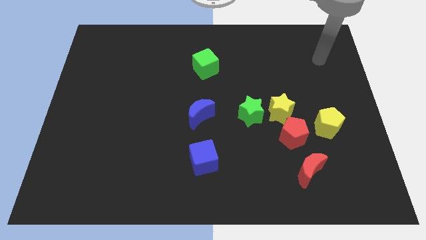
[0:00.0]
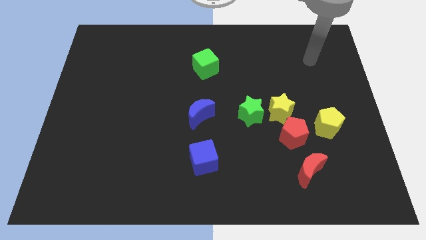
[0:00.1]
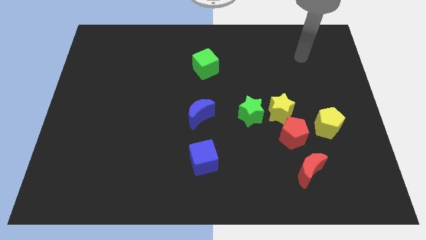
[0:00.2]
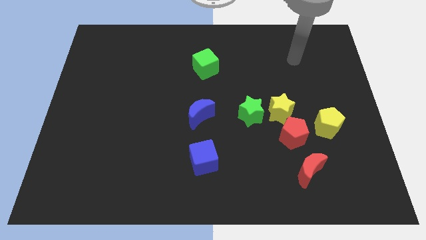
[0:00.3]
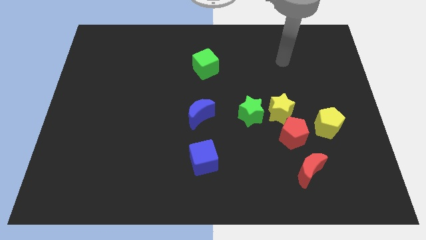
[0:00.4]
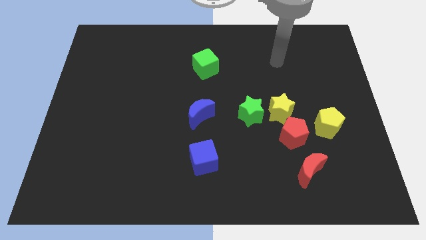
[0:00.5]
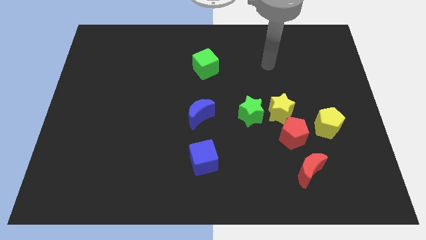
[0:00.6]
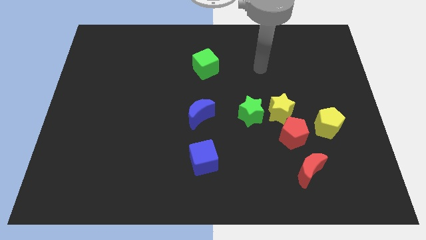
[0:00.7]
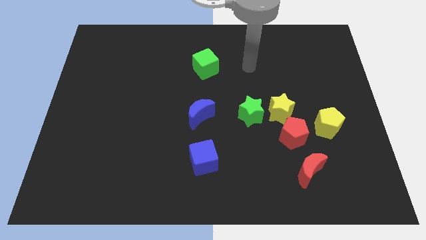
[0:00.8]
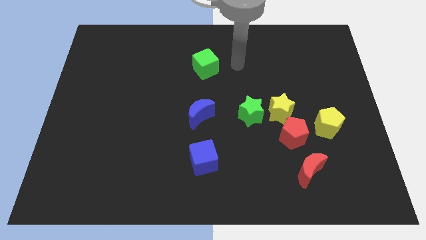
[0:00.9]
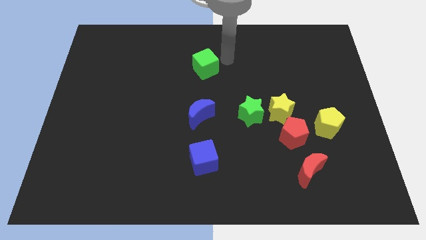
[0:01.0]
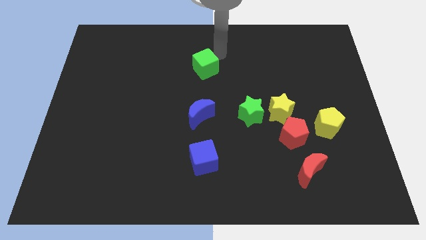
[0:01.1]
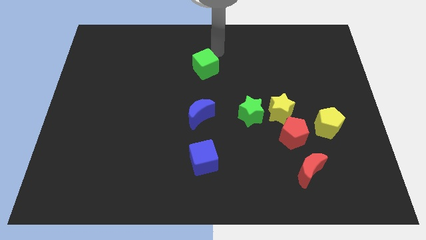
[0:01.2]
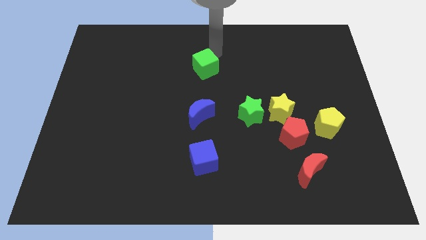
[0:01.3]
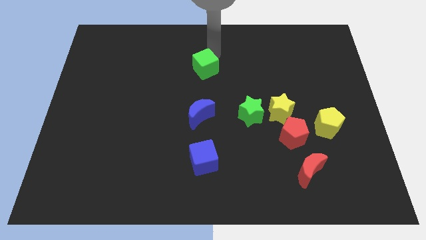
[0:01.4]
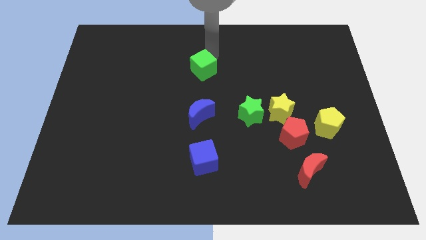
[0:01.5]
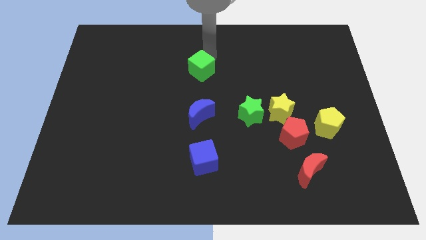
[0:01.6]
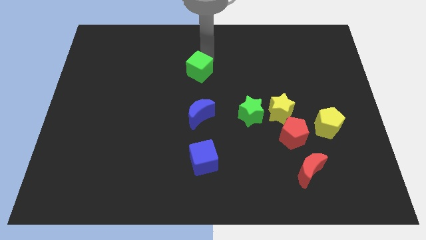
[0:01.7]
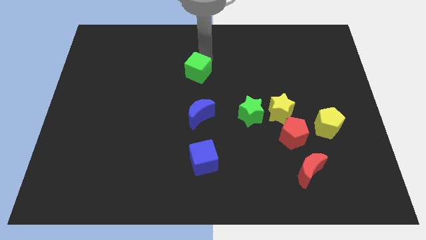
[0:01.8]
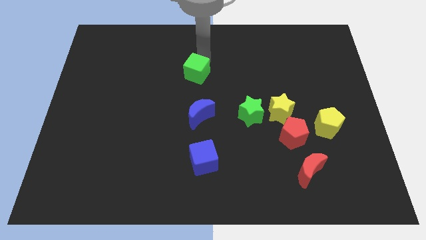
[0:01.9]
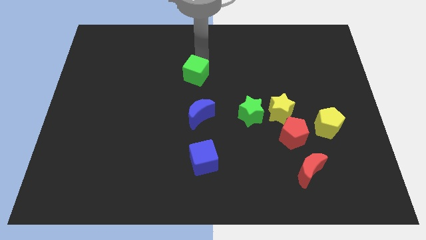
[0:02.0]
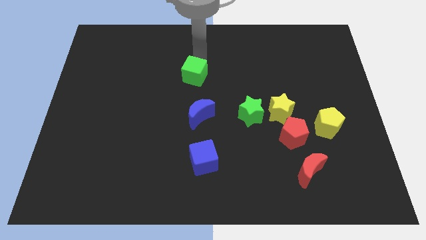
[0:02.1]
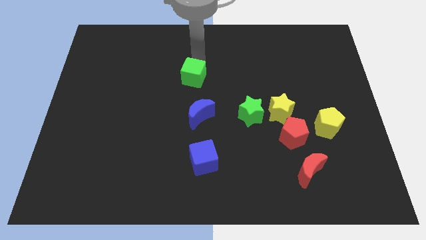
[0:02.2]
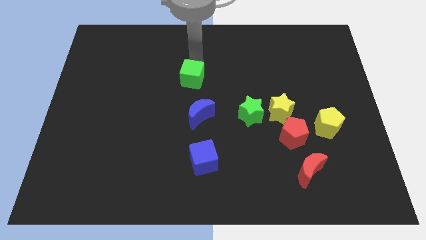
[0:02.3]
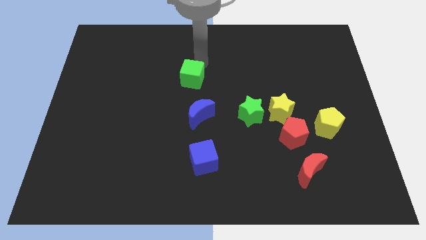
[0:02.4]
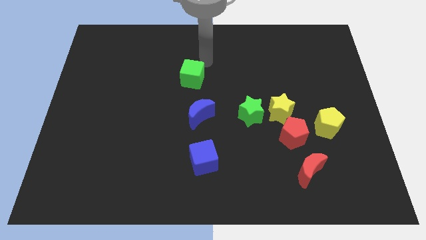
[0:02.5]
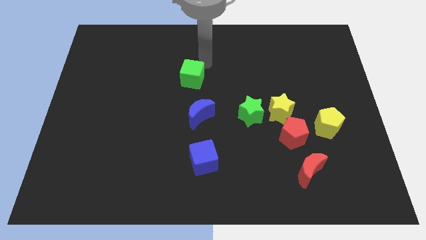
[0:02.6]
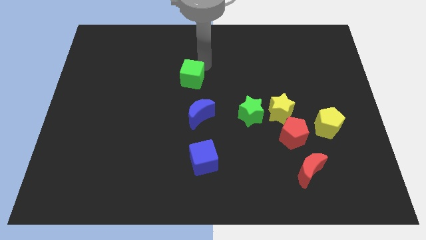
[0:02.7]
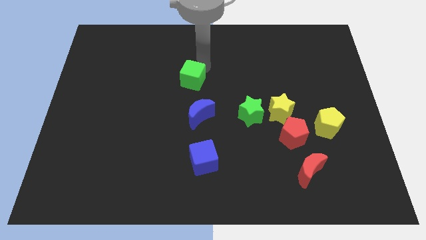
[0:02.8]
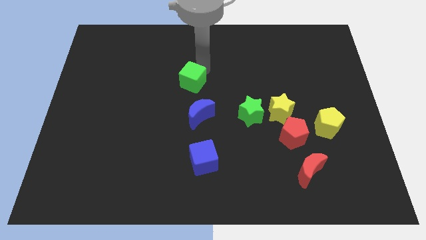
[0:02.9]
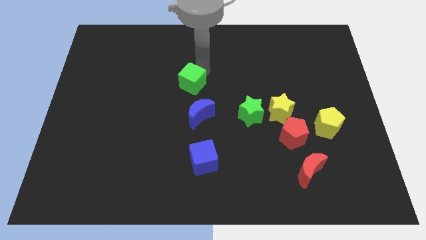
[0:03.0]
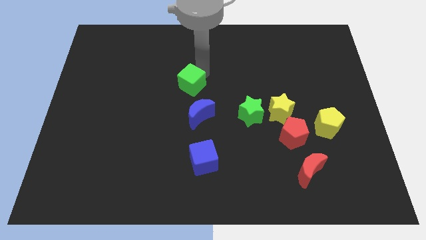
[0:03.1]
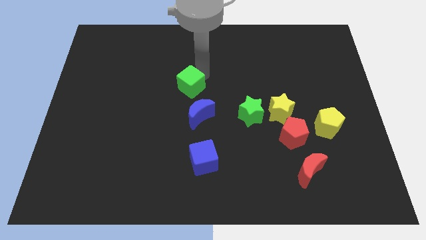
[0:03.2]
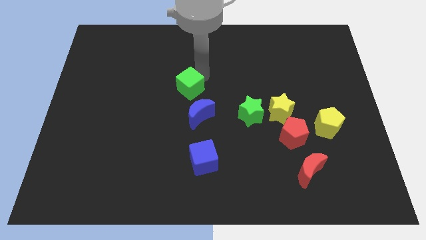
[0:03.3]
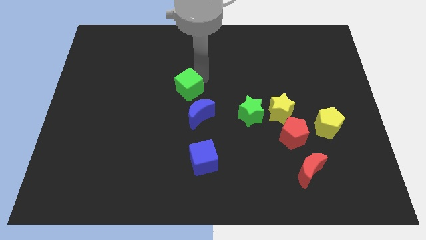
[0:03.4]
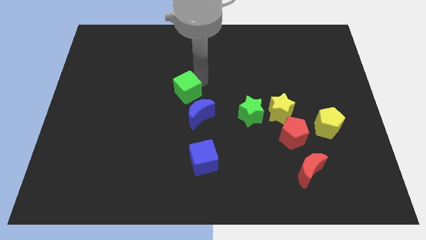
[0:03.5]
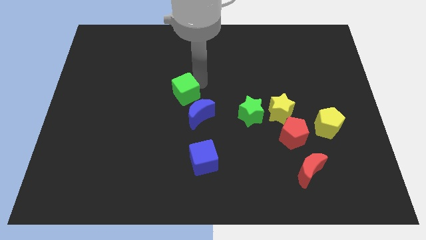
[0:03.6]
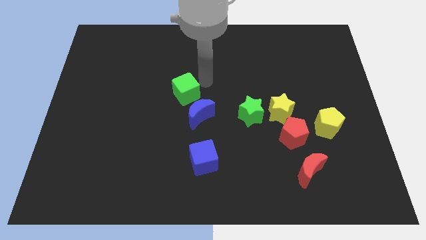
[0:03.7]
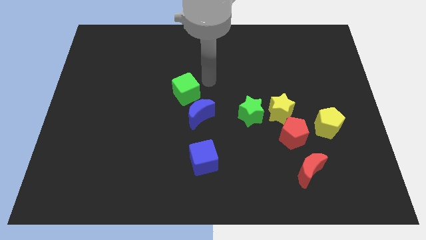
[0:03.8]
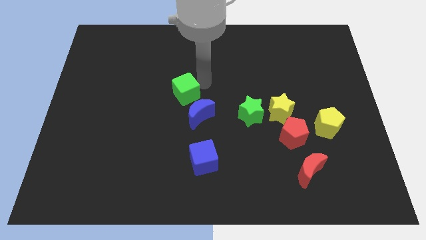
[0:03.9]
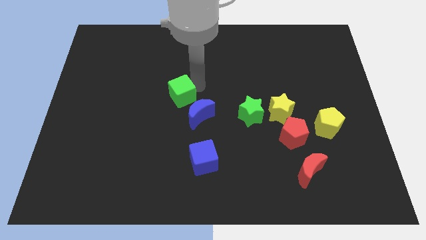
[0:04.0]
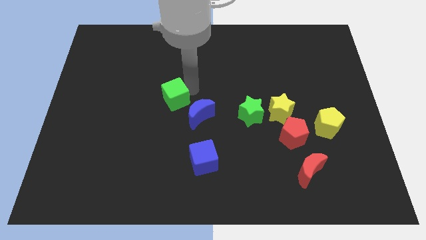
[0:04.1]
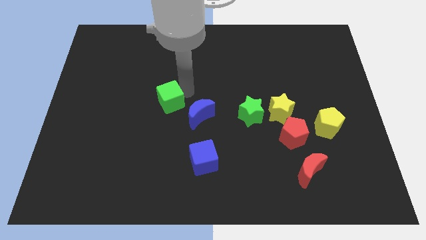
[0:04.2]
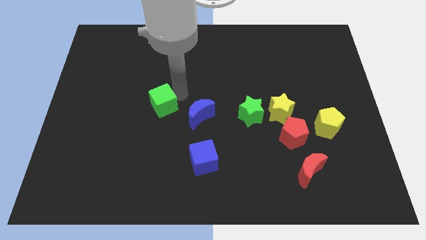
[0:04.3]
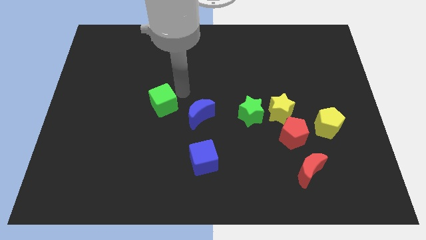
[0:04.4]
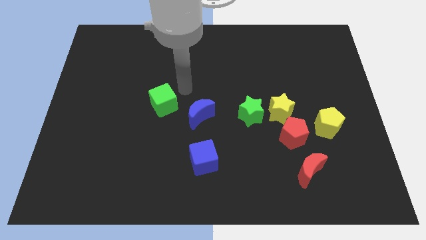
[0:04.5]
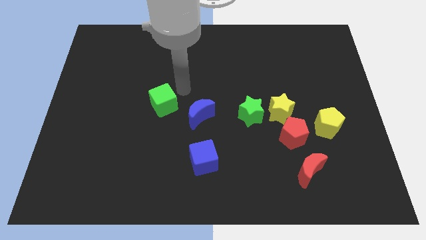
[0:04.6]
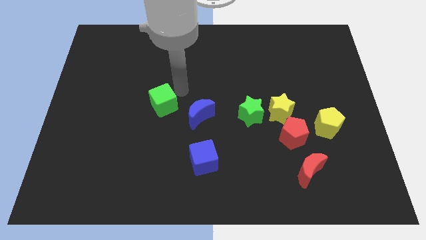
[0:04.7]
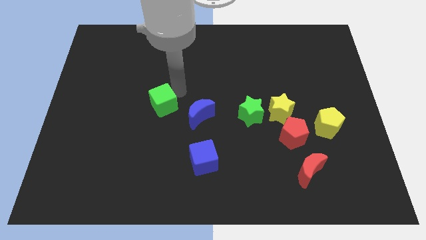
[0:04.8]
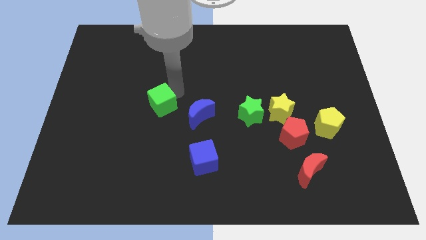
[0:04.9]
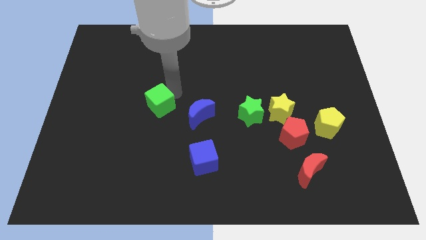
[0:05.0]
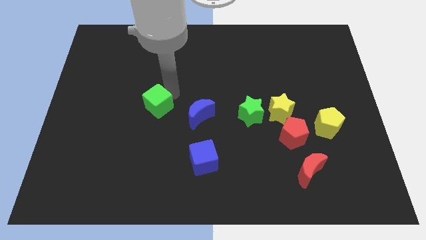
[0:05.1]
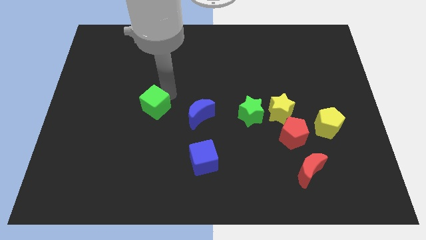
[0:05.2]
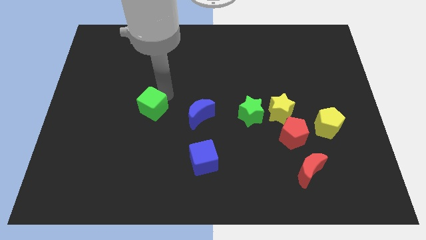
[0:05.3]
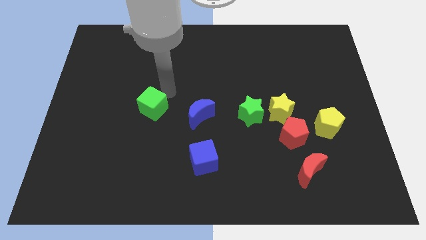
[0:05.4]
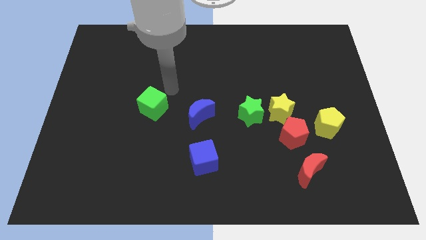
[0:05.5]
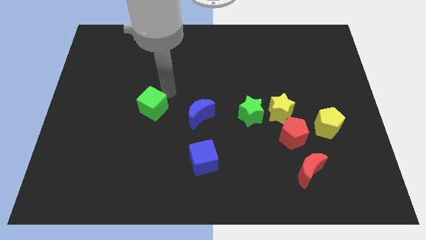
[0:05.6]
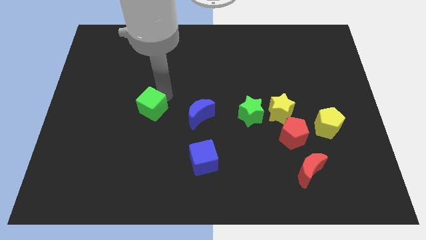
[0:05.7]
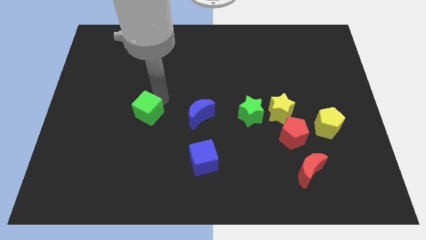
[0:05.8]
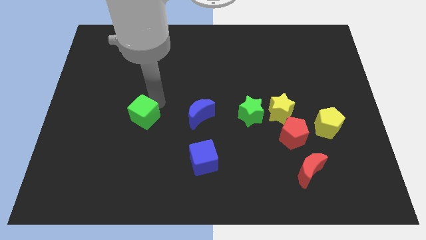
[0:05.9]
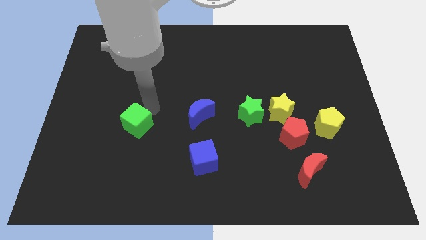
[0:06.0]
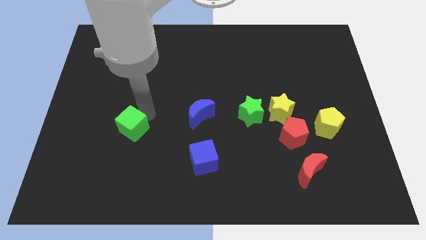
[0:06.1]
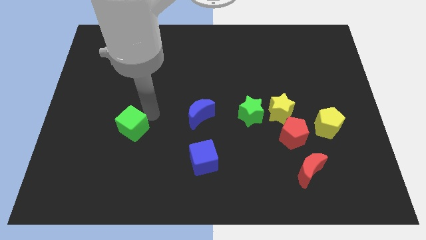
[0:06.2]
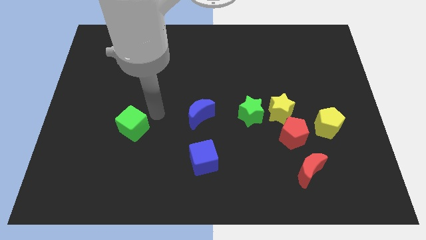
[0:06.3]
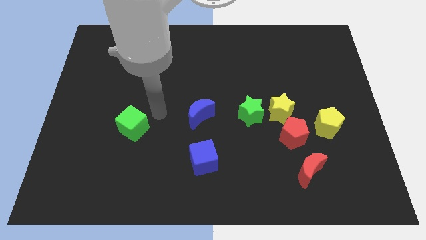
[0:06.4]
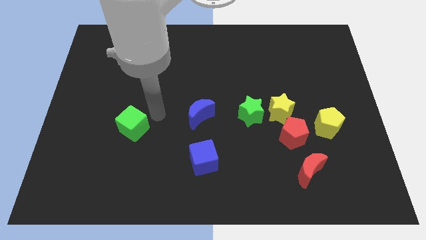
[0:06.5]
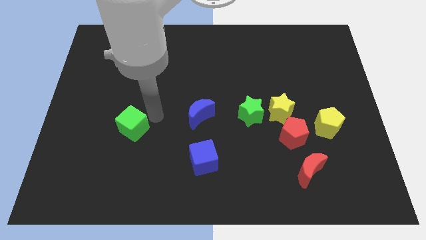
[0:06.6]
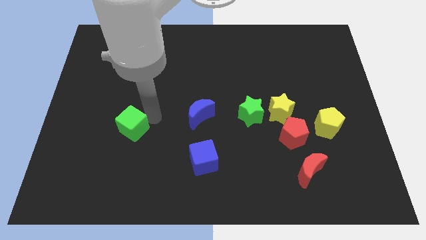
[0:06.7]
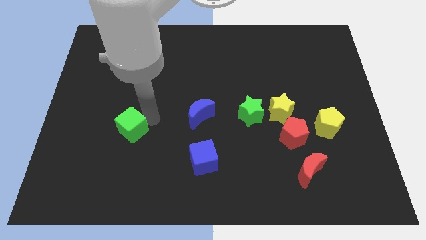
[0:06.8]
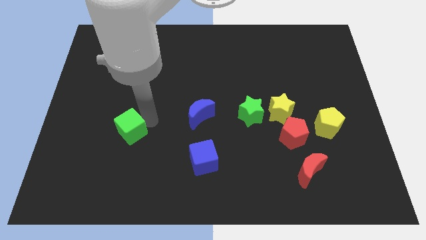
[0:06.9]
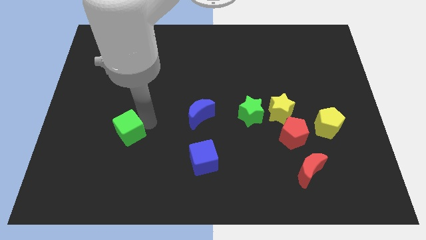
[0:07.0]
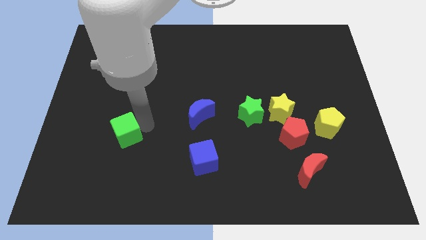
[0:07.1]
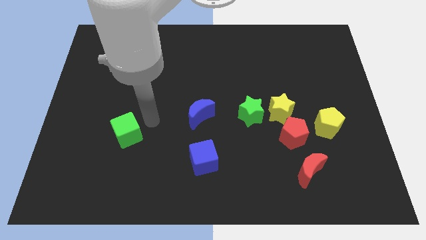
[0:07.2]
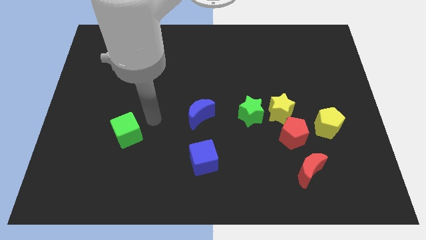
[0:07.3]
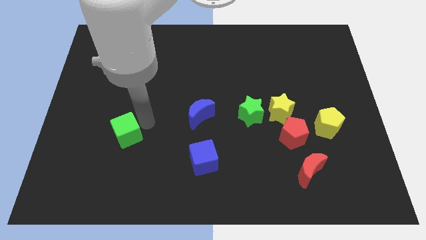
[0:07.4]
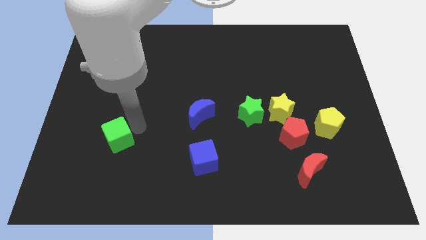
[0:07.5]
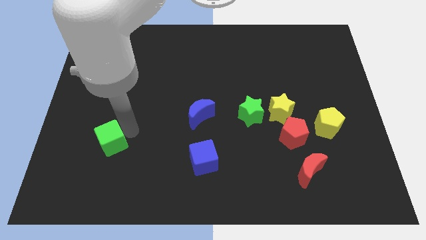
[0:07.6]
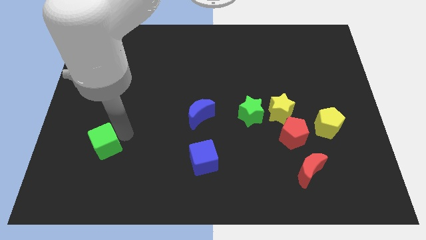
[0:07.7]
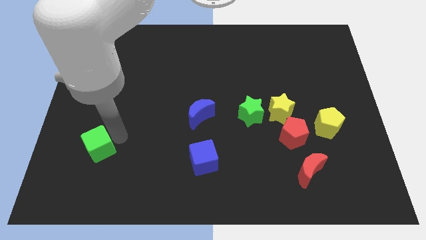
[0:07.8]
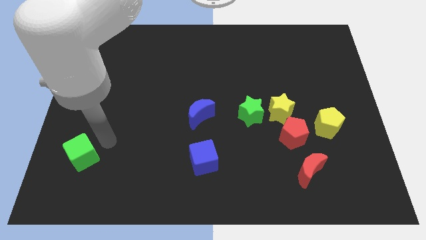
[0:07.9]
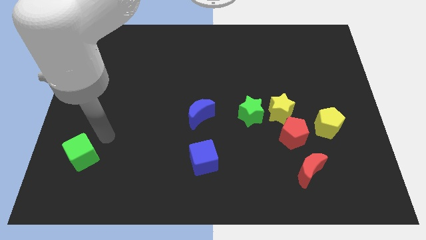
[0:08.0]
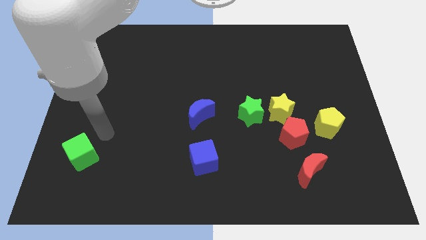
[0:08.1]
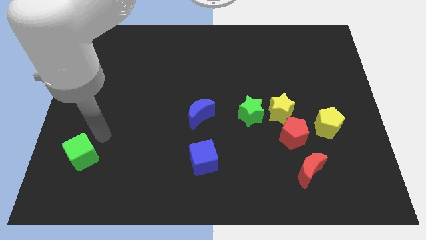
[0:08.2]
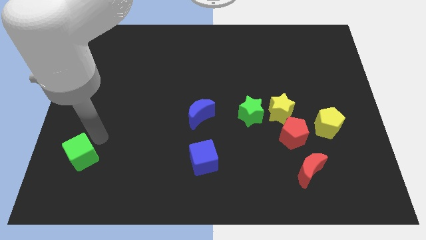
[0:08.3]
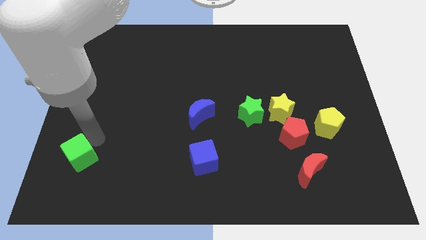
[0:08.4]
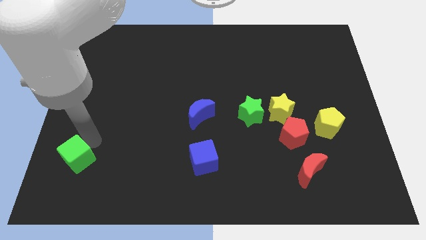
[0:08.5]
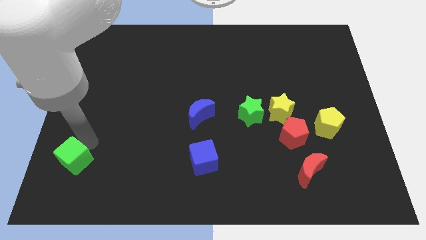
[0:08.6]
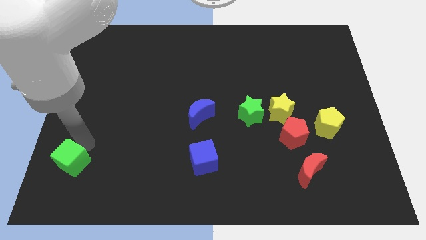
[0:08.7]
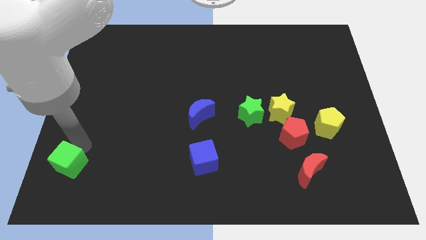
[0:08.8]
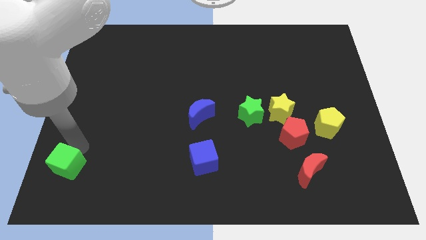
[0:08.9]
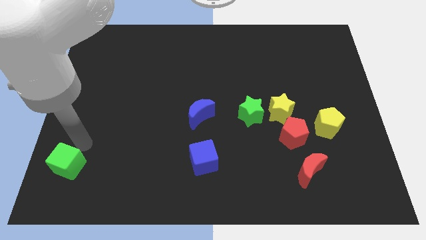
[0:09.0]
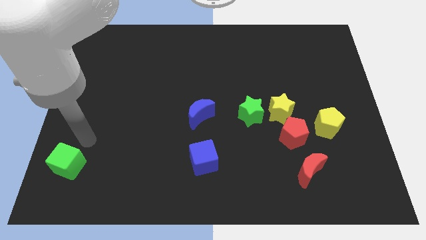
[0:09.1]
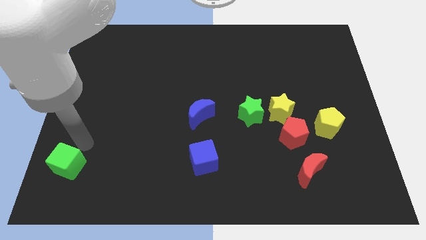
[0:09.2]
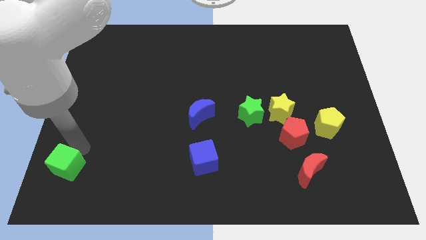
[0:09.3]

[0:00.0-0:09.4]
put the green cube to the lower left corner
